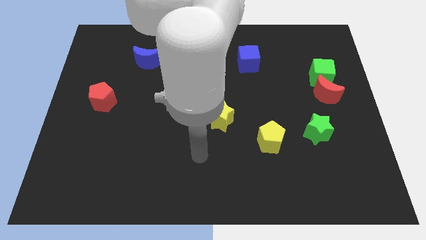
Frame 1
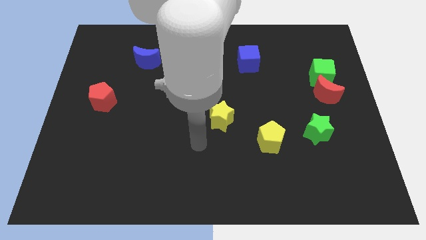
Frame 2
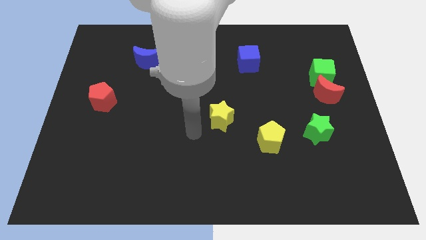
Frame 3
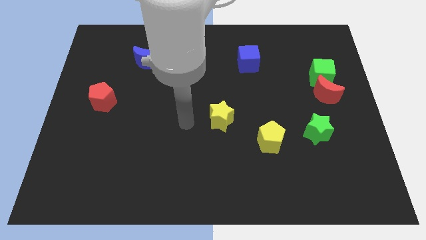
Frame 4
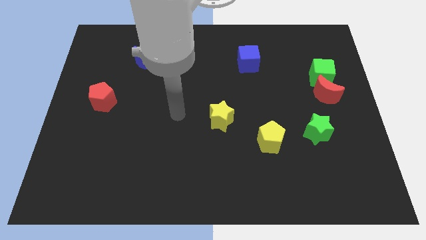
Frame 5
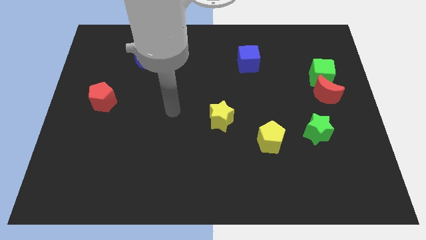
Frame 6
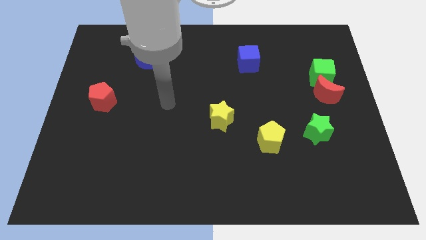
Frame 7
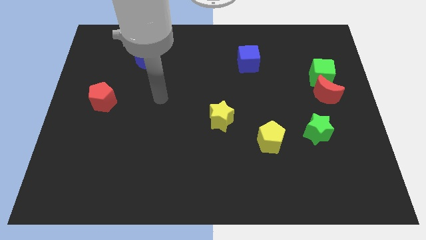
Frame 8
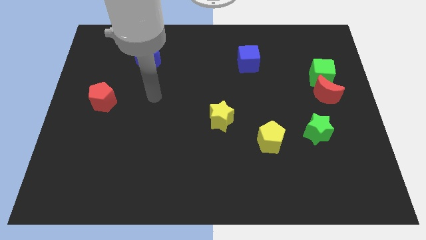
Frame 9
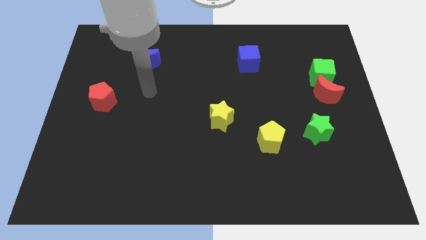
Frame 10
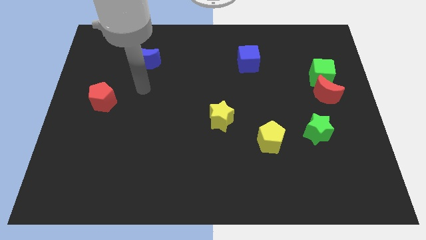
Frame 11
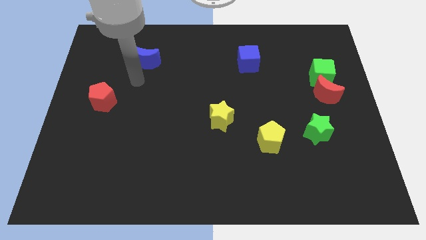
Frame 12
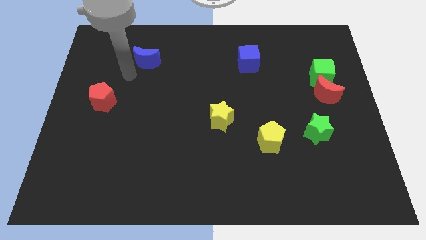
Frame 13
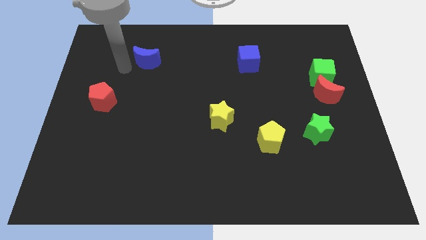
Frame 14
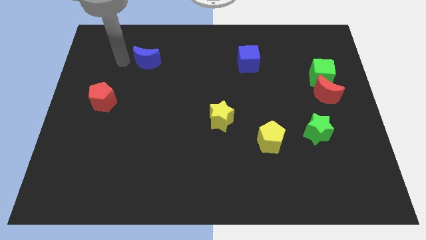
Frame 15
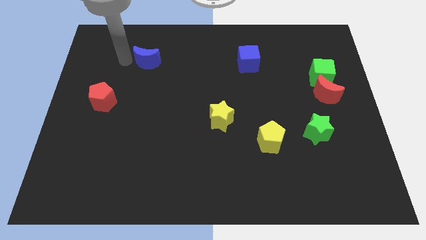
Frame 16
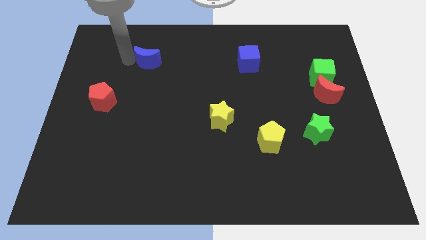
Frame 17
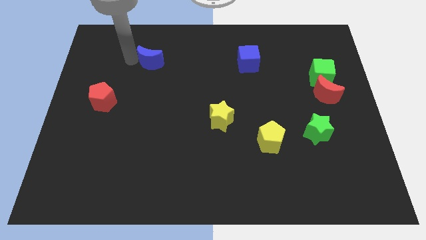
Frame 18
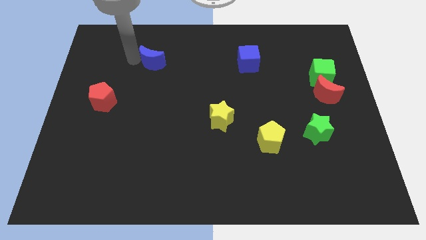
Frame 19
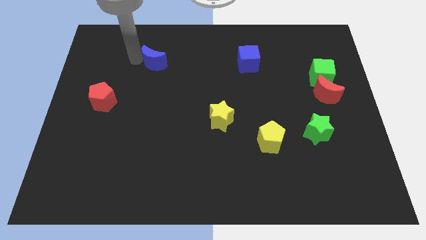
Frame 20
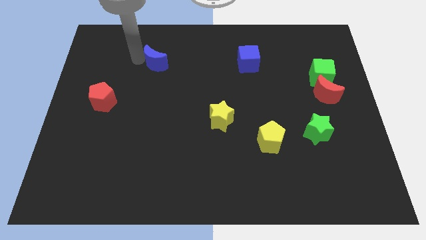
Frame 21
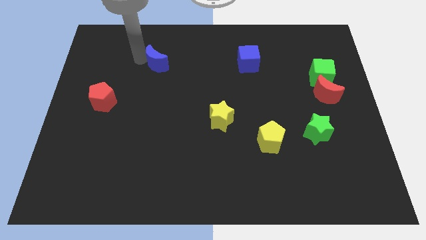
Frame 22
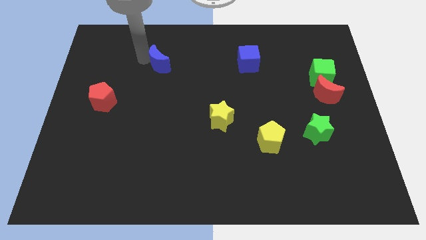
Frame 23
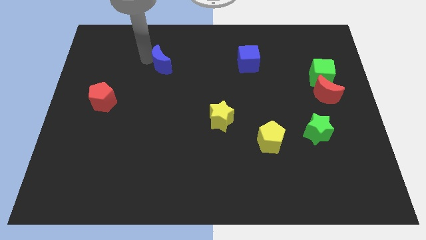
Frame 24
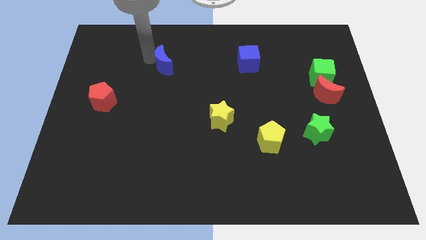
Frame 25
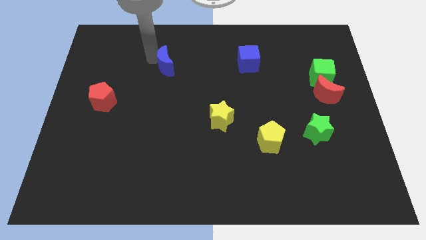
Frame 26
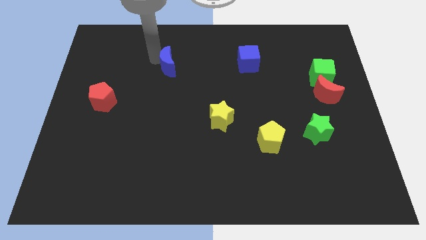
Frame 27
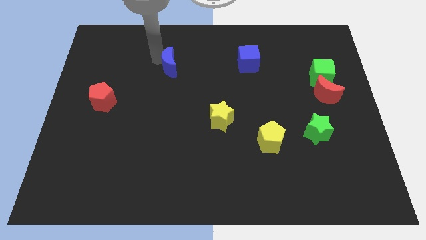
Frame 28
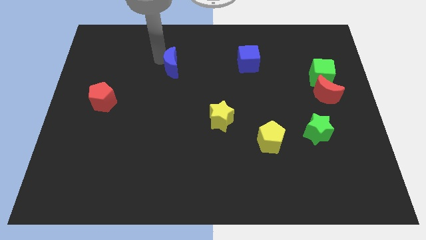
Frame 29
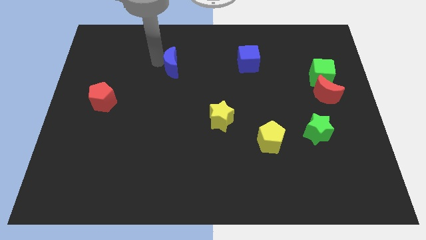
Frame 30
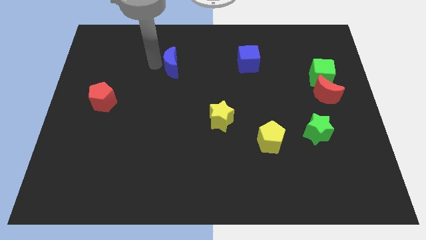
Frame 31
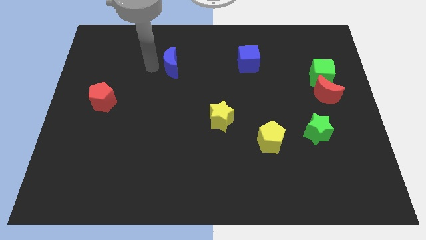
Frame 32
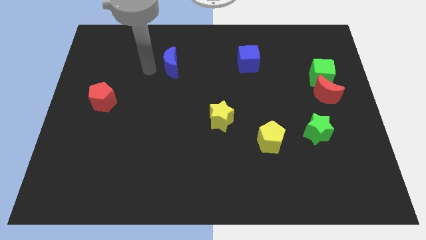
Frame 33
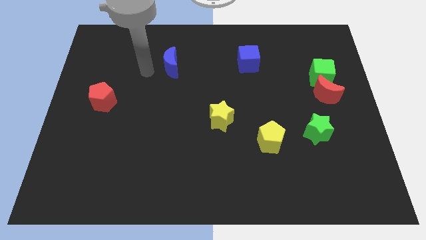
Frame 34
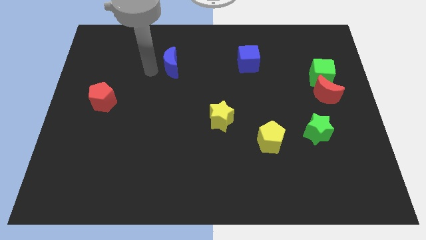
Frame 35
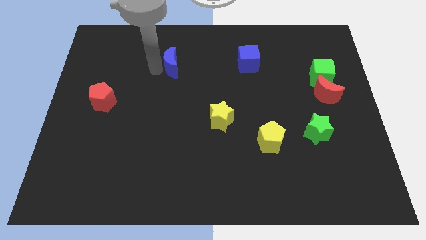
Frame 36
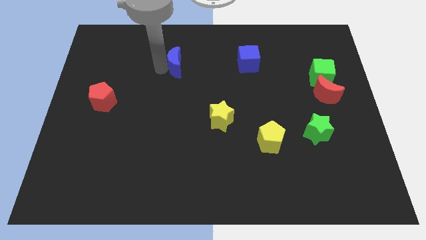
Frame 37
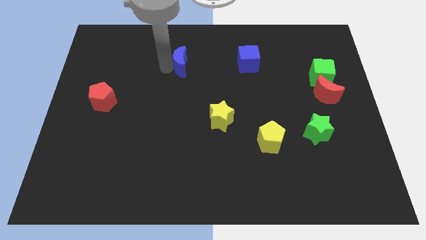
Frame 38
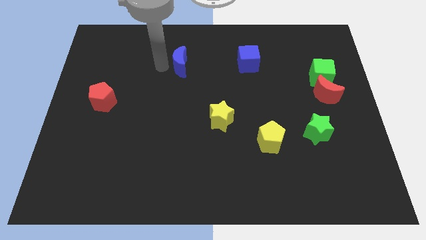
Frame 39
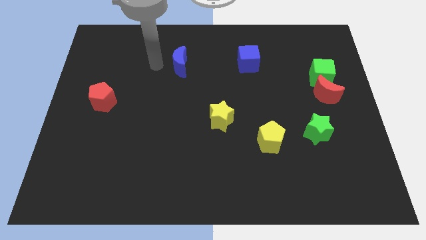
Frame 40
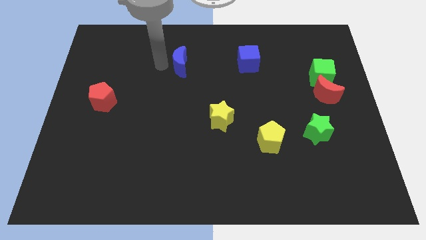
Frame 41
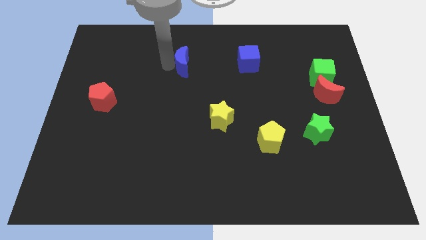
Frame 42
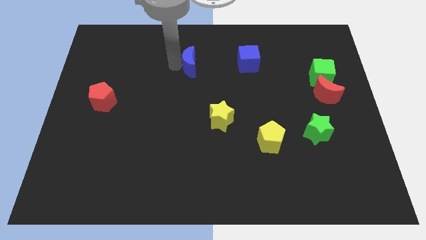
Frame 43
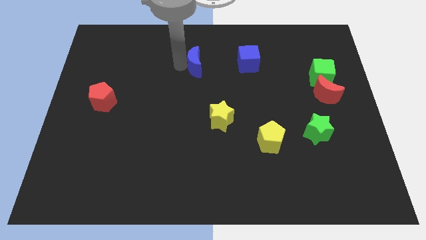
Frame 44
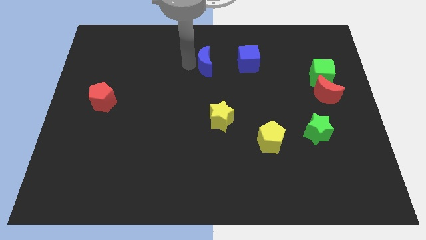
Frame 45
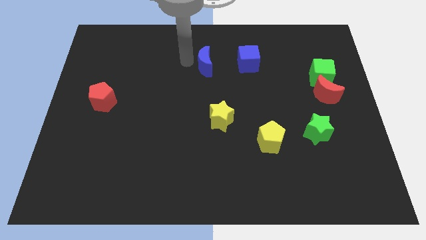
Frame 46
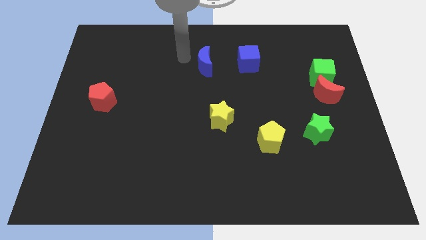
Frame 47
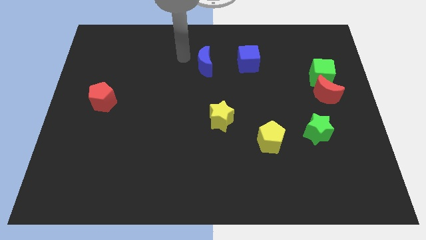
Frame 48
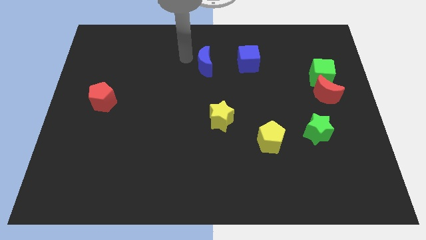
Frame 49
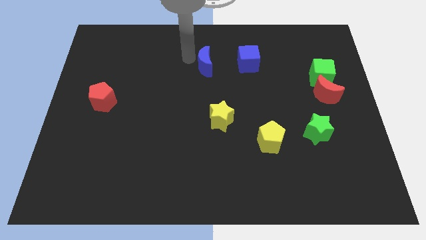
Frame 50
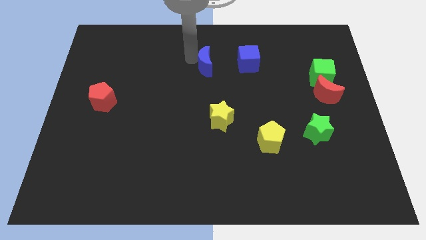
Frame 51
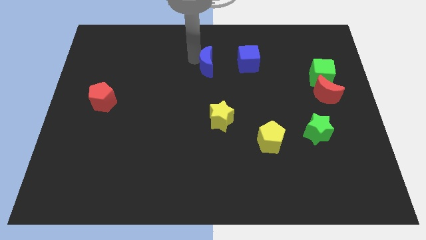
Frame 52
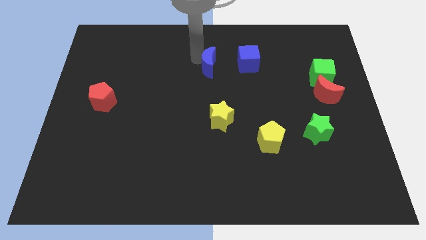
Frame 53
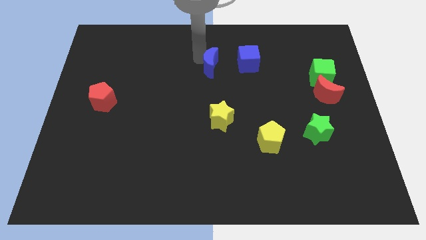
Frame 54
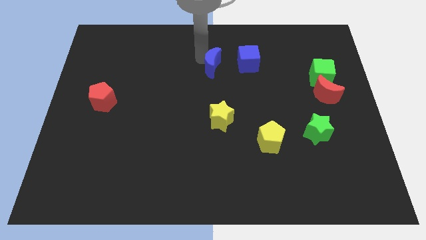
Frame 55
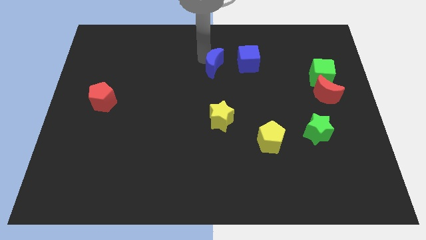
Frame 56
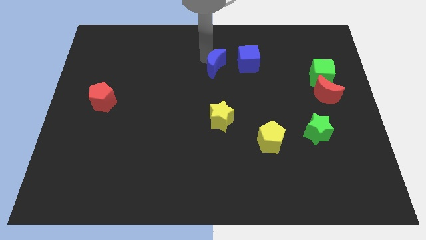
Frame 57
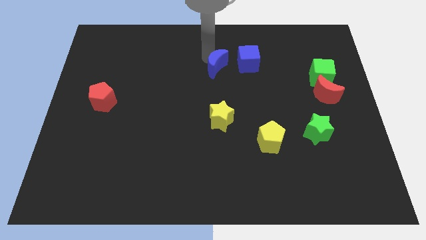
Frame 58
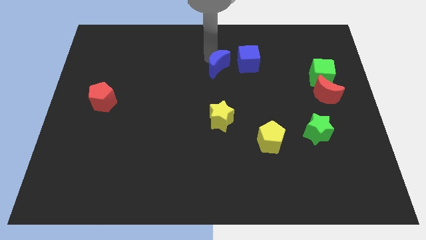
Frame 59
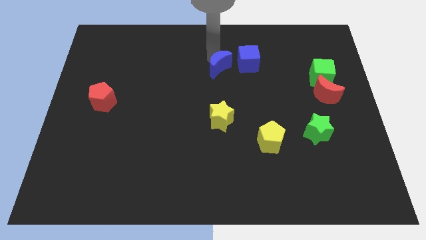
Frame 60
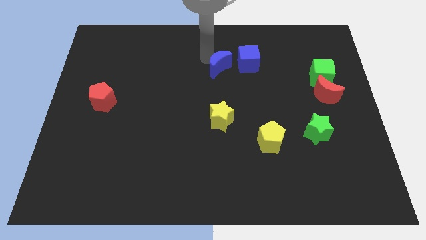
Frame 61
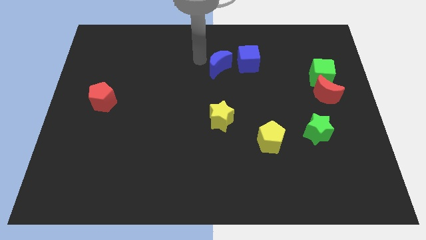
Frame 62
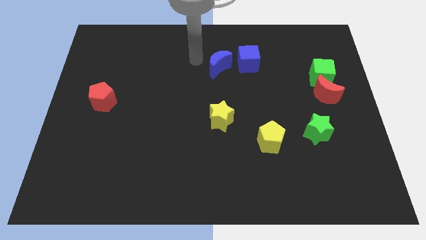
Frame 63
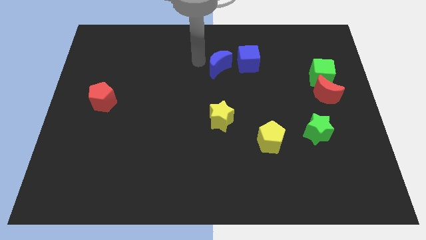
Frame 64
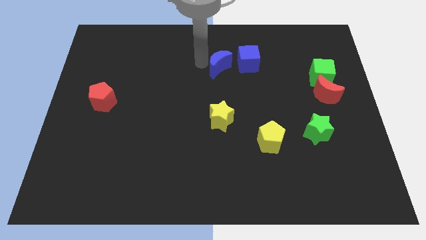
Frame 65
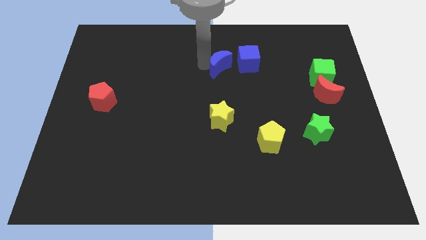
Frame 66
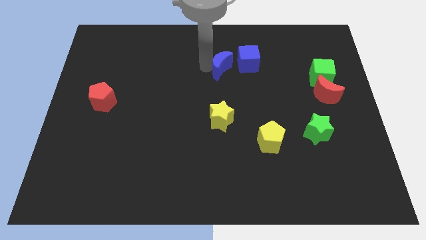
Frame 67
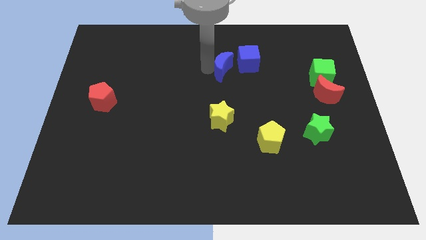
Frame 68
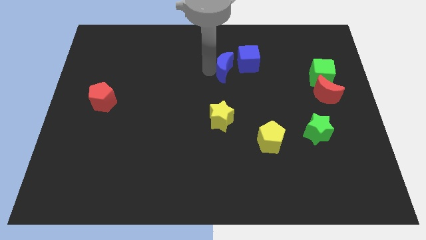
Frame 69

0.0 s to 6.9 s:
slide the blue moon right

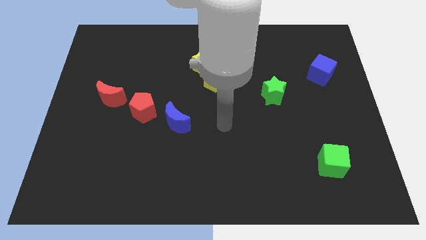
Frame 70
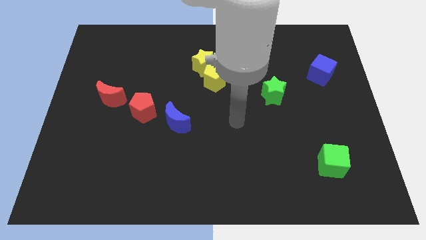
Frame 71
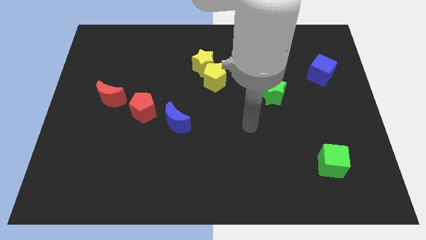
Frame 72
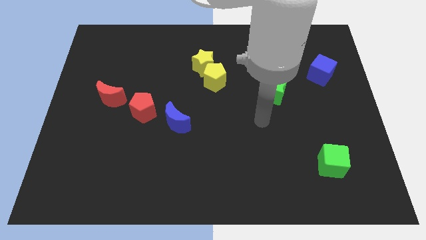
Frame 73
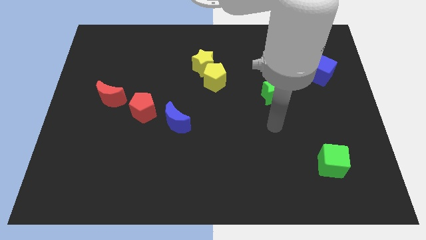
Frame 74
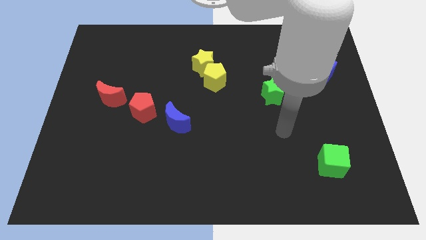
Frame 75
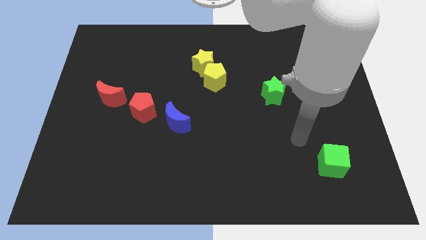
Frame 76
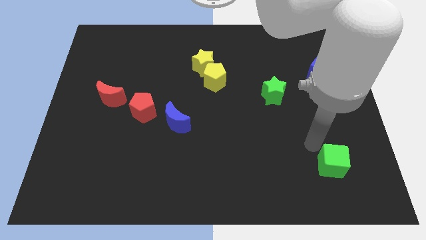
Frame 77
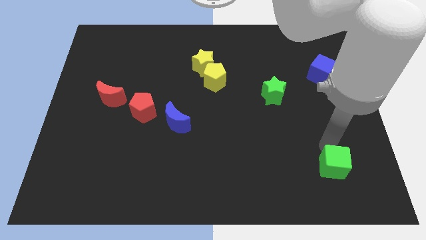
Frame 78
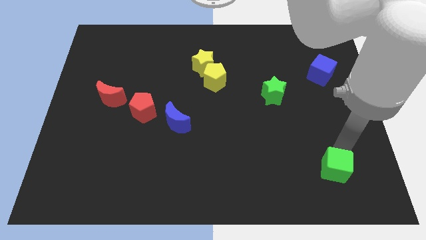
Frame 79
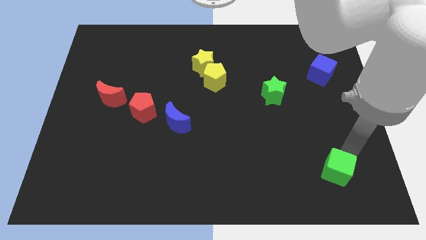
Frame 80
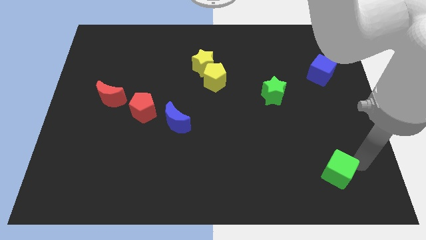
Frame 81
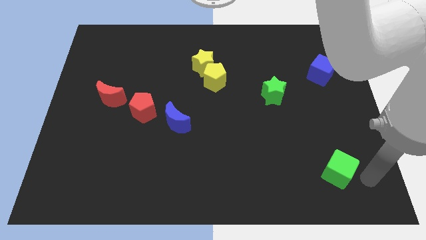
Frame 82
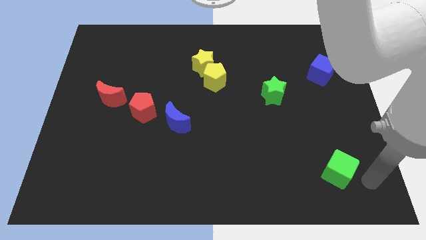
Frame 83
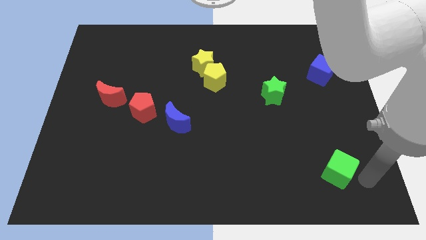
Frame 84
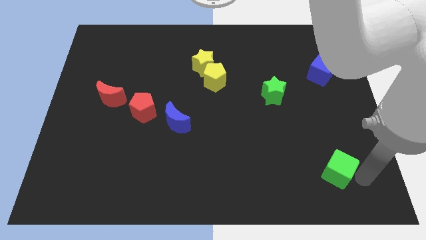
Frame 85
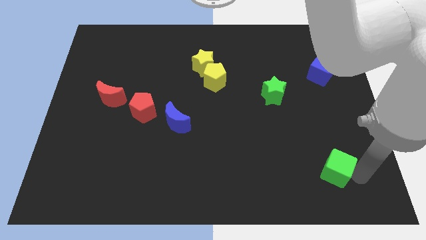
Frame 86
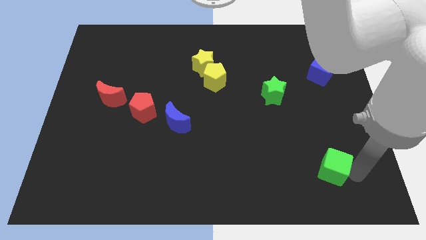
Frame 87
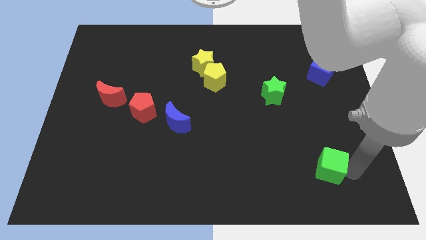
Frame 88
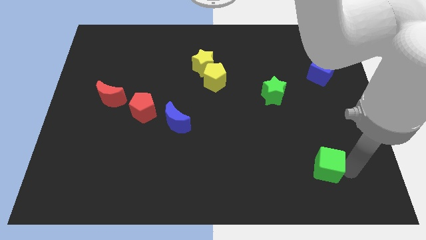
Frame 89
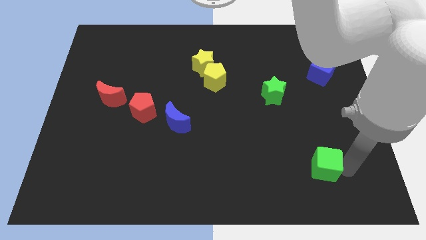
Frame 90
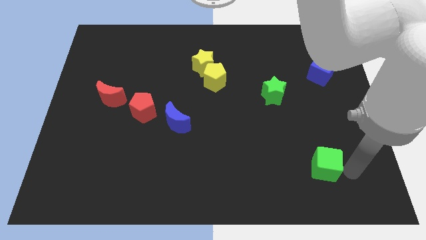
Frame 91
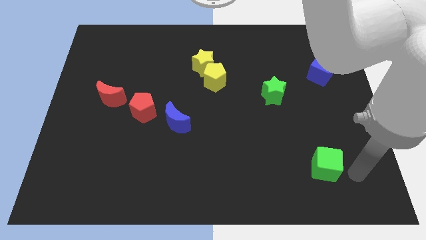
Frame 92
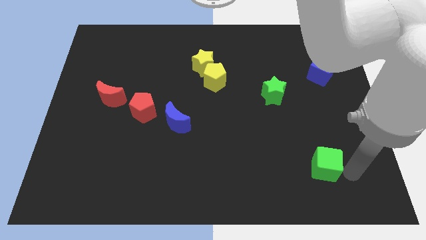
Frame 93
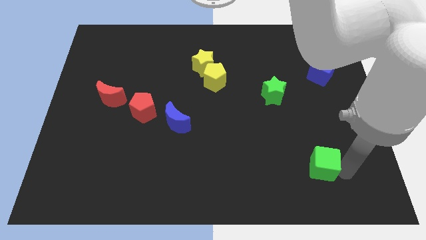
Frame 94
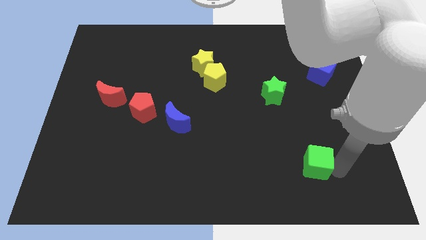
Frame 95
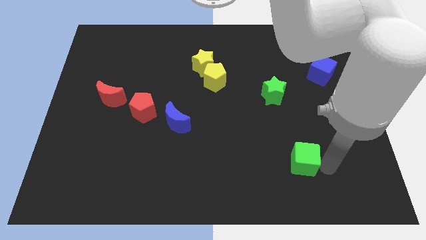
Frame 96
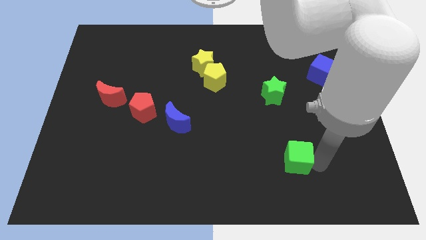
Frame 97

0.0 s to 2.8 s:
slightly move the green cube left
